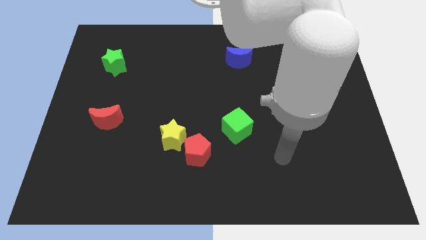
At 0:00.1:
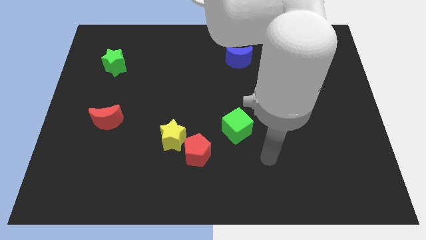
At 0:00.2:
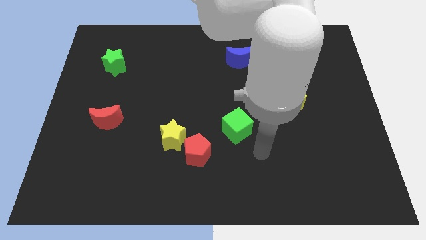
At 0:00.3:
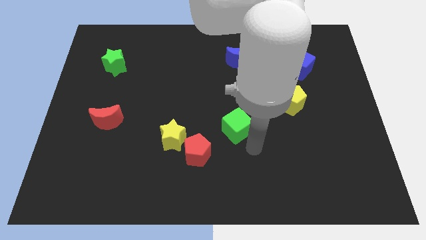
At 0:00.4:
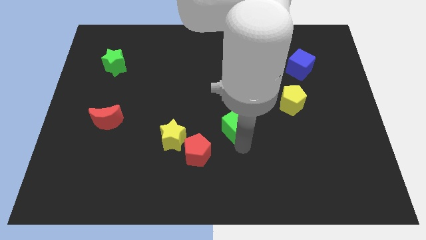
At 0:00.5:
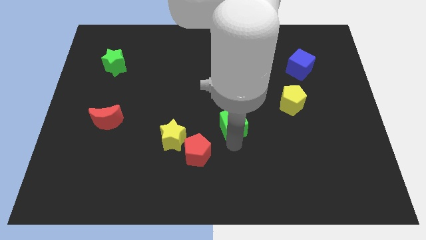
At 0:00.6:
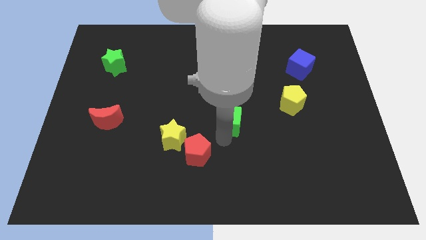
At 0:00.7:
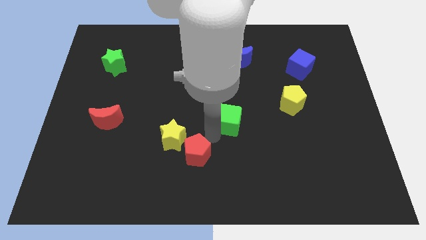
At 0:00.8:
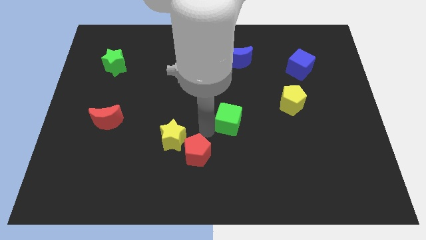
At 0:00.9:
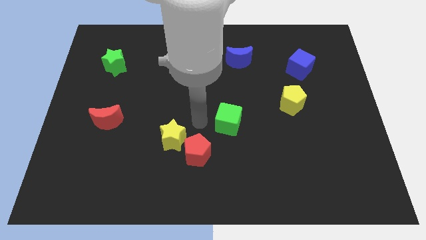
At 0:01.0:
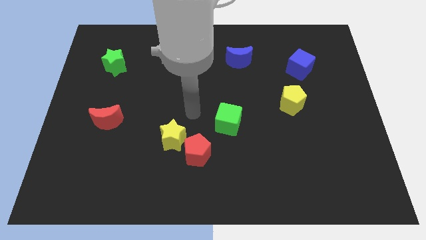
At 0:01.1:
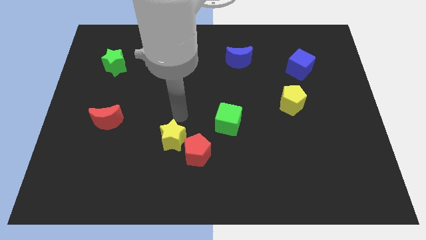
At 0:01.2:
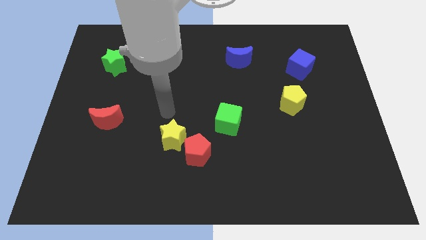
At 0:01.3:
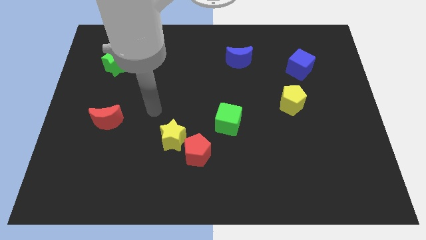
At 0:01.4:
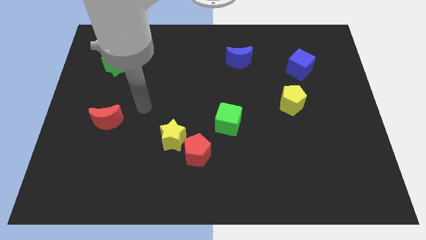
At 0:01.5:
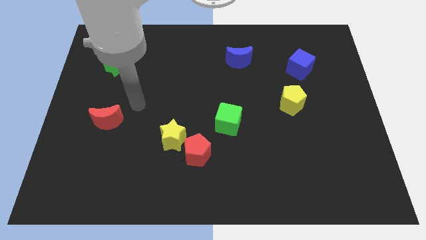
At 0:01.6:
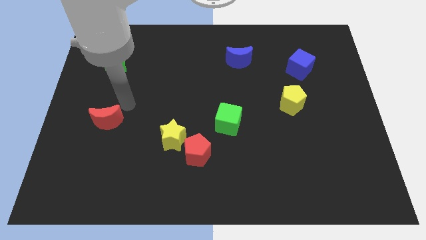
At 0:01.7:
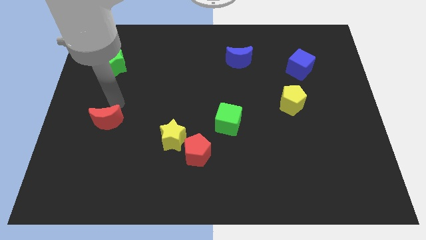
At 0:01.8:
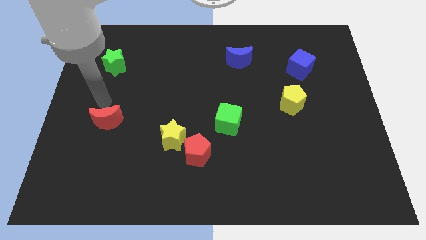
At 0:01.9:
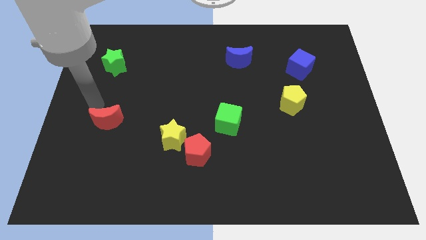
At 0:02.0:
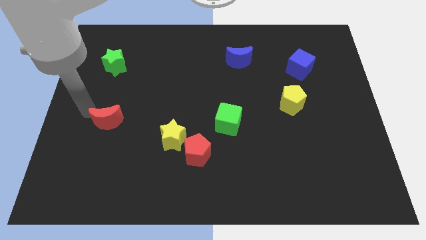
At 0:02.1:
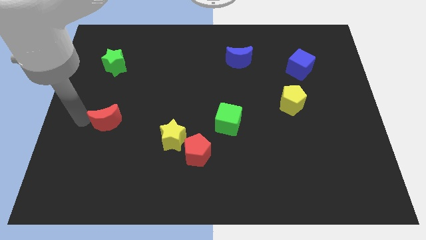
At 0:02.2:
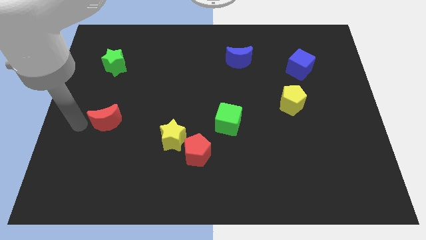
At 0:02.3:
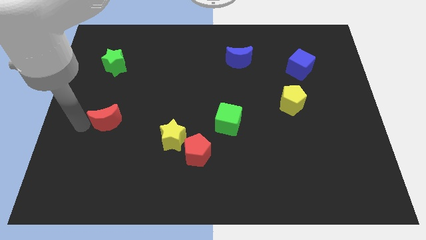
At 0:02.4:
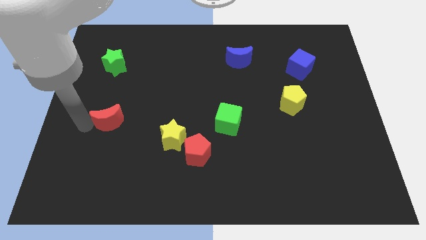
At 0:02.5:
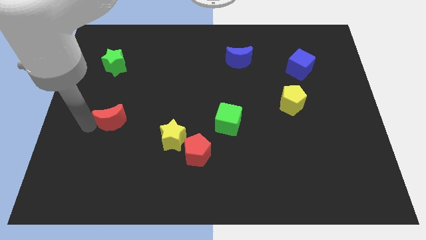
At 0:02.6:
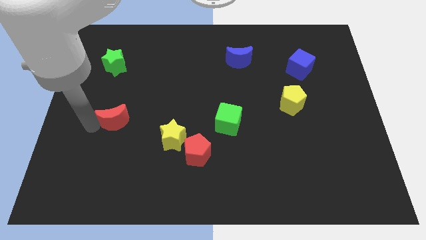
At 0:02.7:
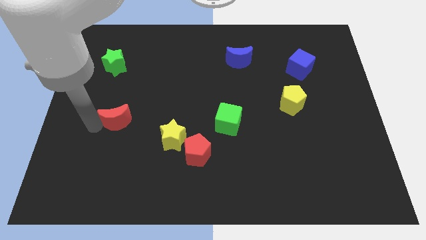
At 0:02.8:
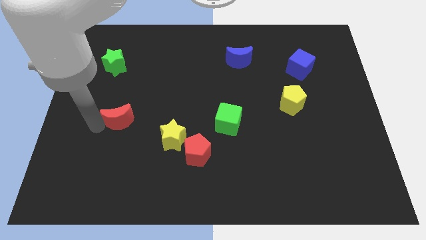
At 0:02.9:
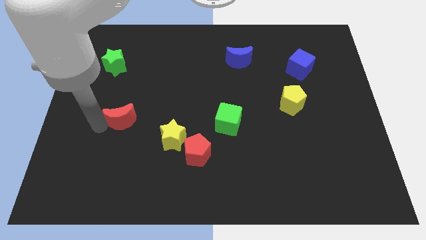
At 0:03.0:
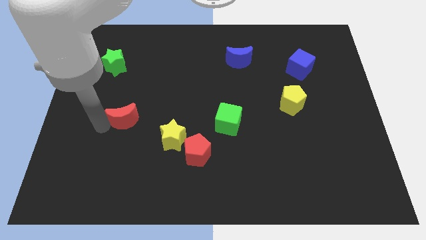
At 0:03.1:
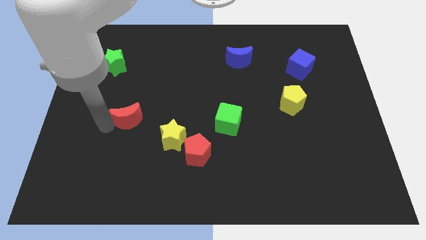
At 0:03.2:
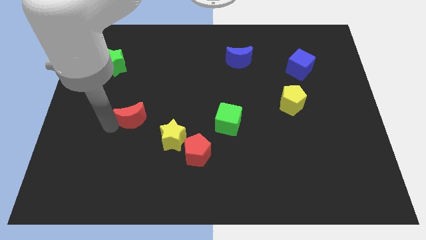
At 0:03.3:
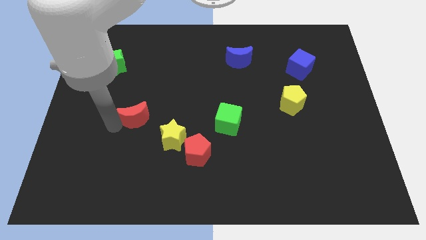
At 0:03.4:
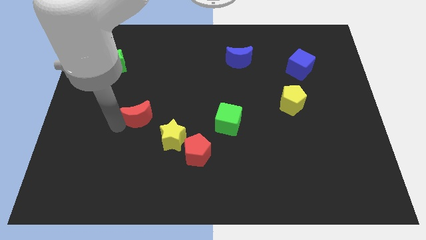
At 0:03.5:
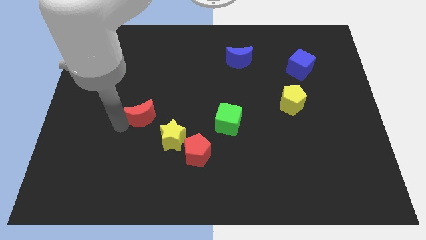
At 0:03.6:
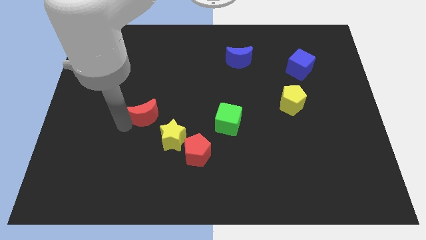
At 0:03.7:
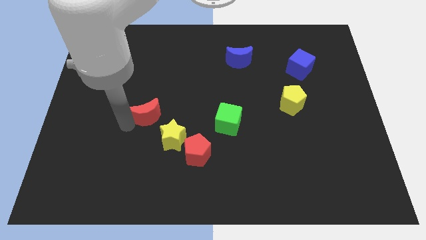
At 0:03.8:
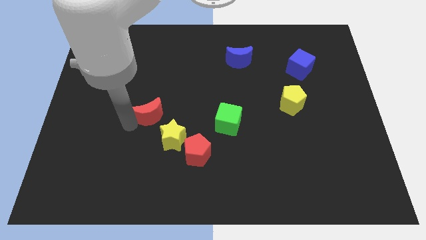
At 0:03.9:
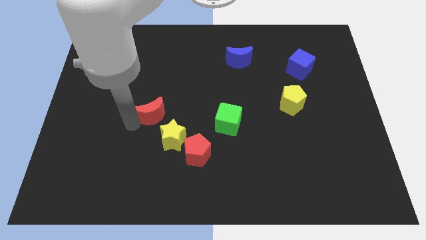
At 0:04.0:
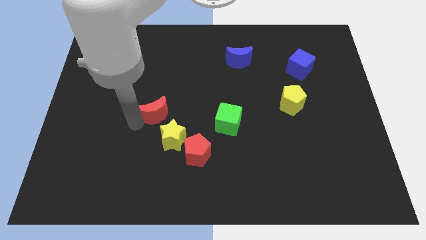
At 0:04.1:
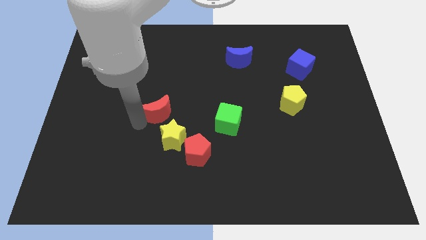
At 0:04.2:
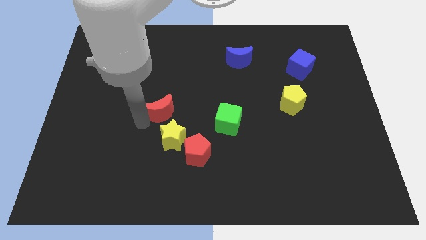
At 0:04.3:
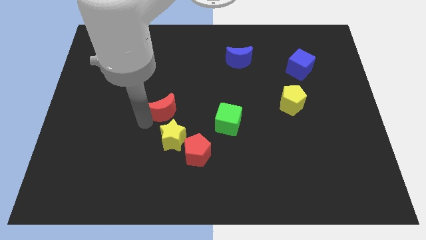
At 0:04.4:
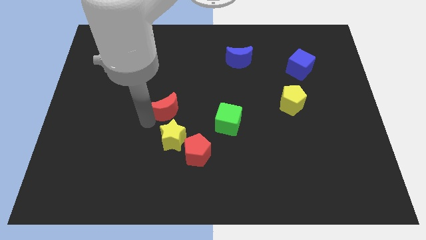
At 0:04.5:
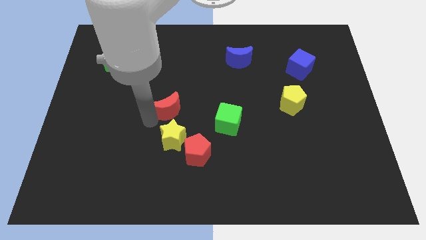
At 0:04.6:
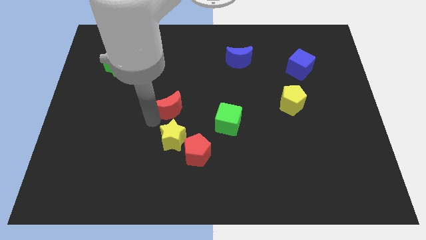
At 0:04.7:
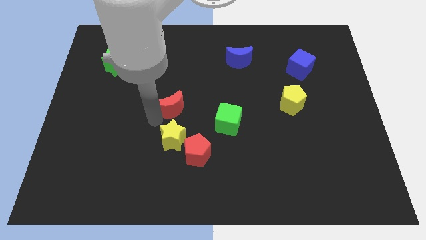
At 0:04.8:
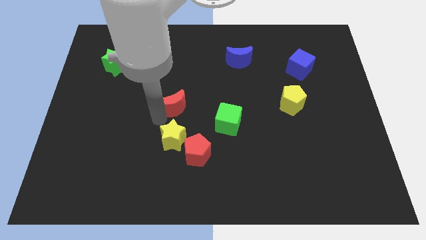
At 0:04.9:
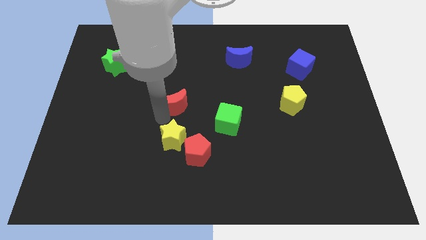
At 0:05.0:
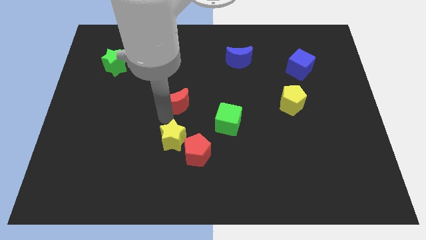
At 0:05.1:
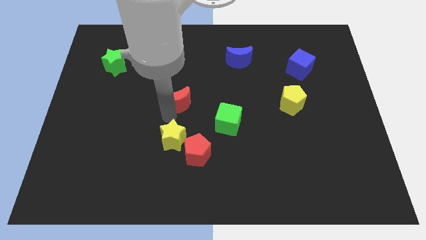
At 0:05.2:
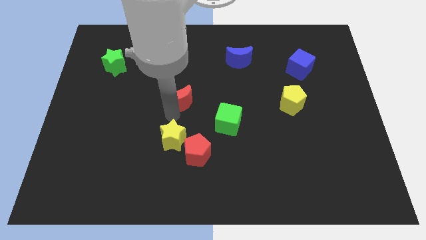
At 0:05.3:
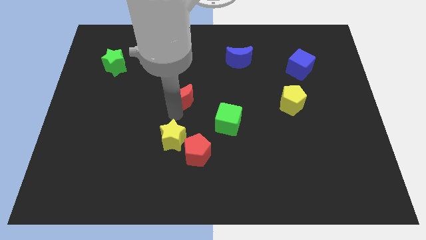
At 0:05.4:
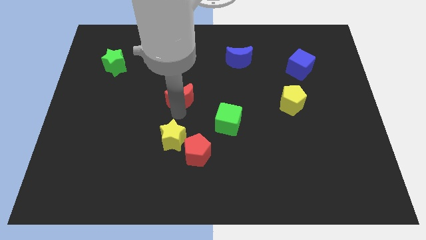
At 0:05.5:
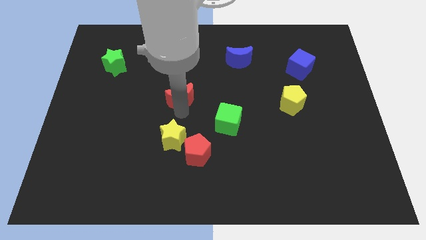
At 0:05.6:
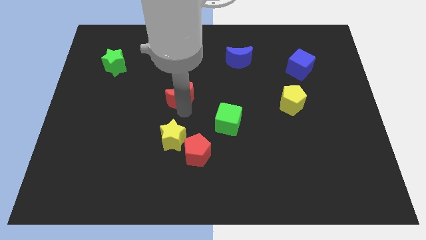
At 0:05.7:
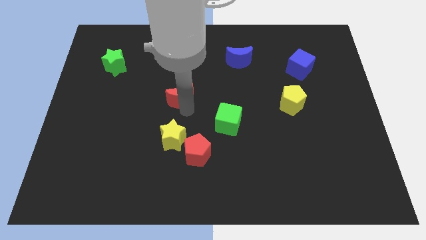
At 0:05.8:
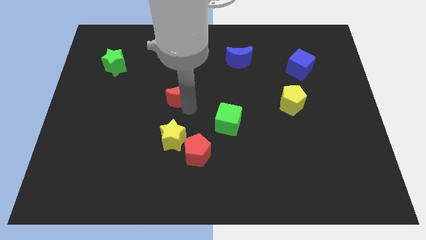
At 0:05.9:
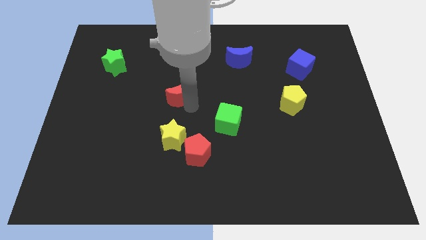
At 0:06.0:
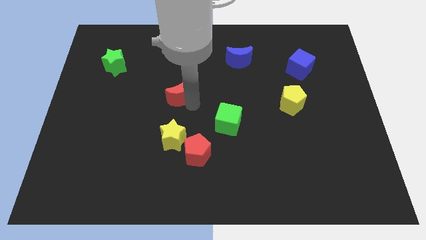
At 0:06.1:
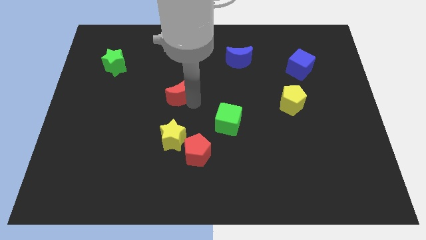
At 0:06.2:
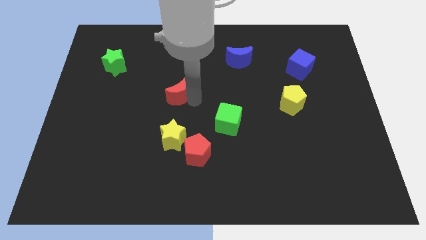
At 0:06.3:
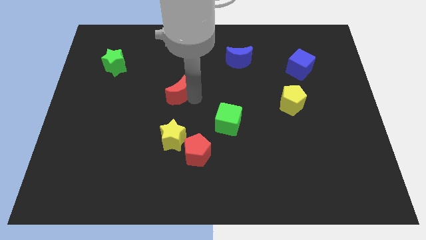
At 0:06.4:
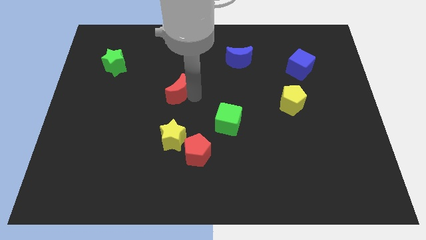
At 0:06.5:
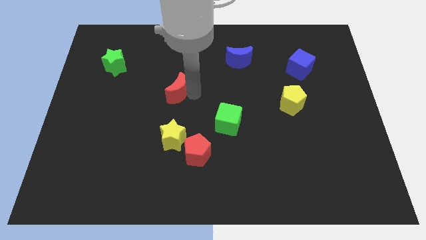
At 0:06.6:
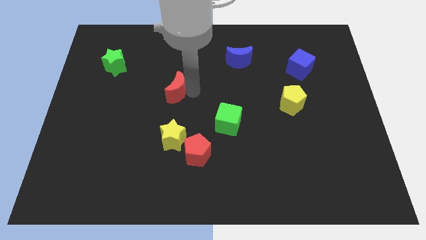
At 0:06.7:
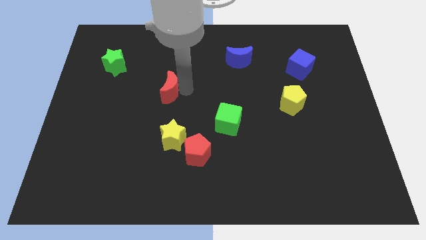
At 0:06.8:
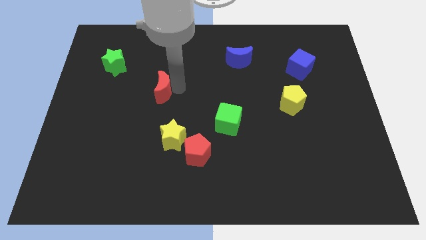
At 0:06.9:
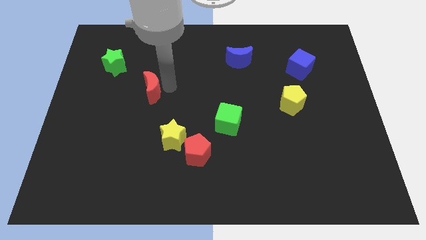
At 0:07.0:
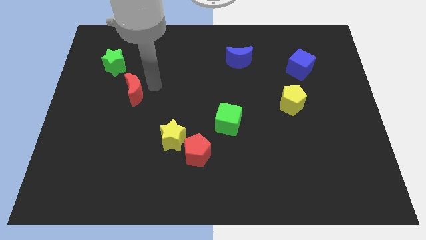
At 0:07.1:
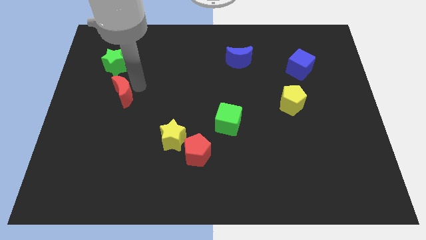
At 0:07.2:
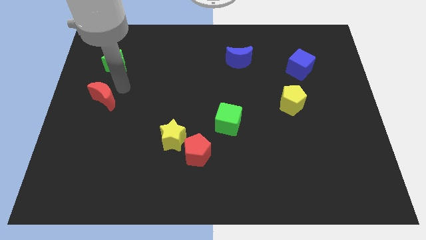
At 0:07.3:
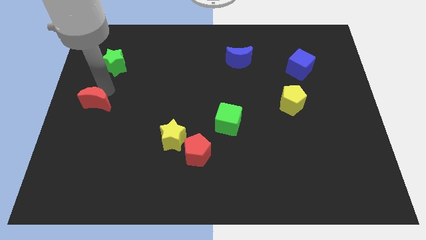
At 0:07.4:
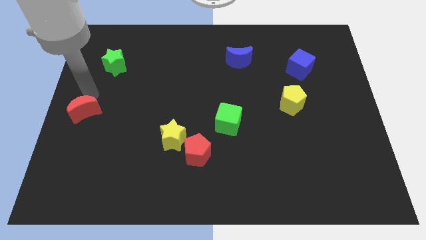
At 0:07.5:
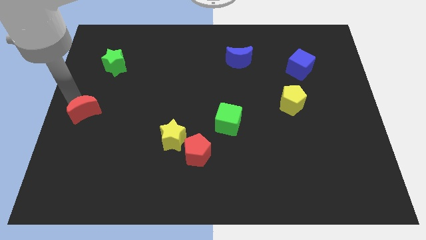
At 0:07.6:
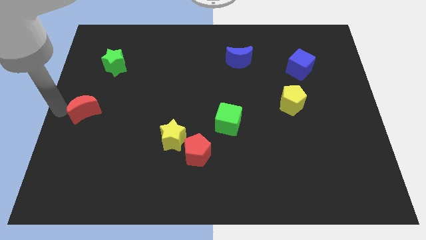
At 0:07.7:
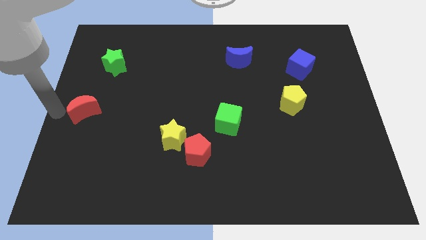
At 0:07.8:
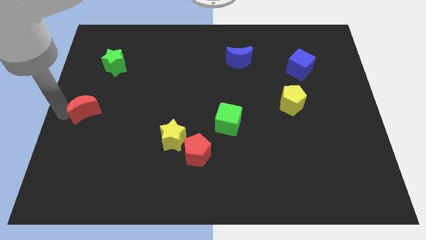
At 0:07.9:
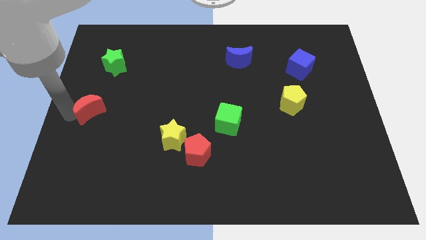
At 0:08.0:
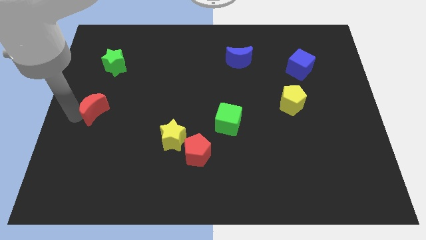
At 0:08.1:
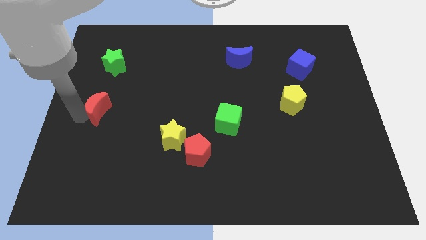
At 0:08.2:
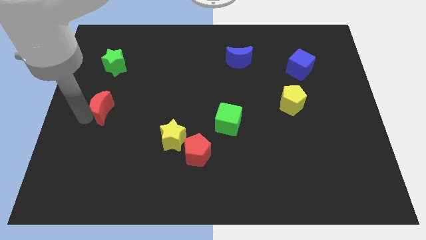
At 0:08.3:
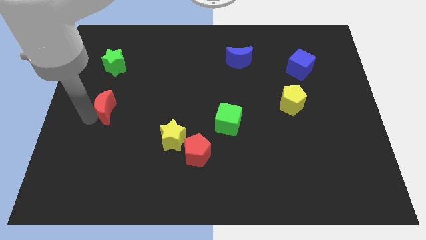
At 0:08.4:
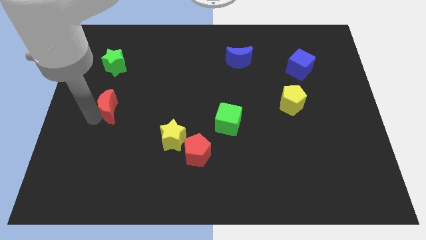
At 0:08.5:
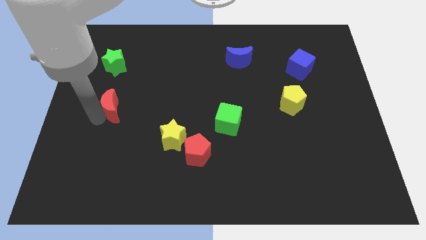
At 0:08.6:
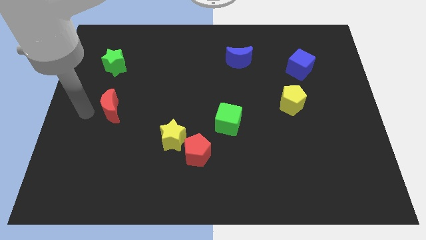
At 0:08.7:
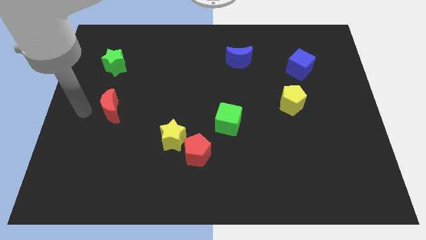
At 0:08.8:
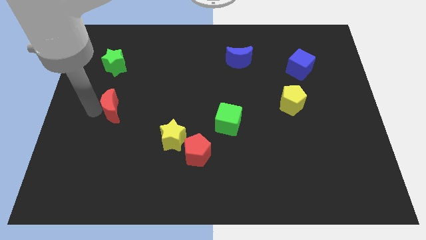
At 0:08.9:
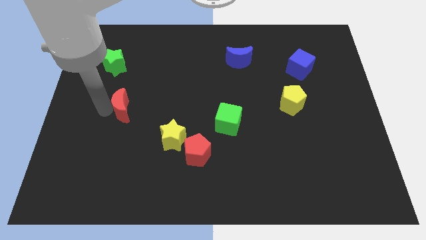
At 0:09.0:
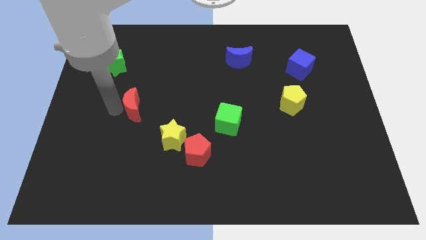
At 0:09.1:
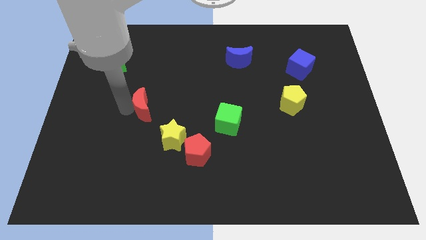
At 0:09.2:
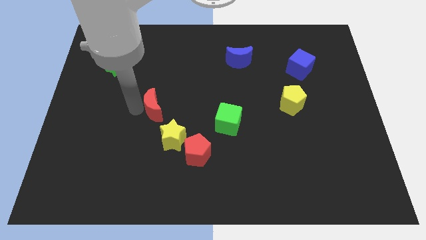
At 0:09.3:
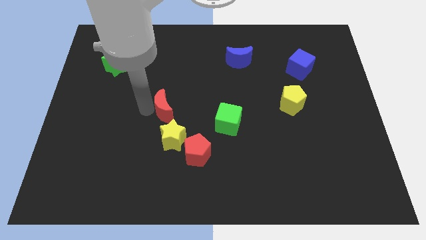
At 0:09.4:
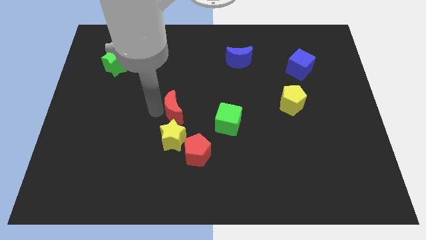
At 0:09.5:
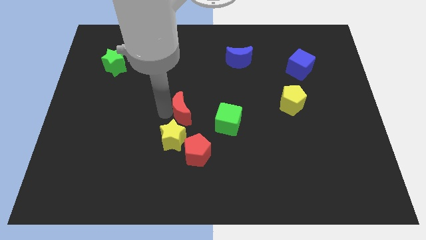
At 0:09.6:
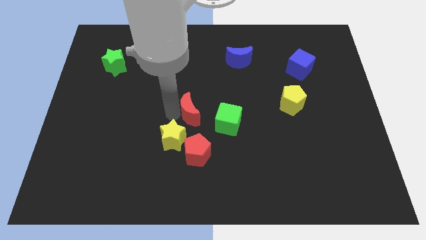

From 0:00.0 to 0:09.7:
push the red moon diagonally up and to the left of the green cube
